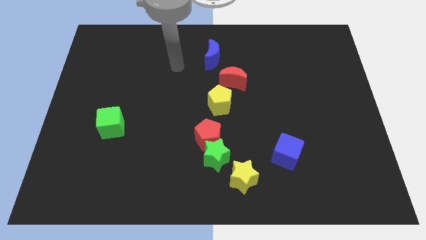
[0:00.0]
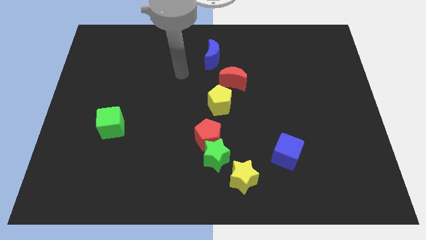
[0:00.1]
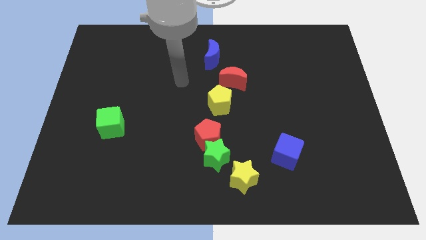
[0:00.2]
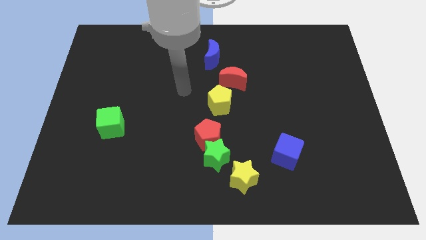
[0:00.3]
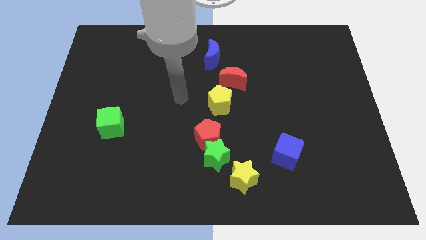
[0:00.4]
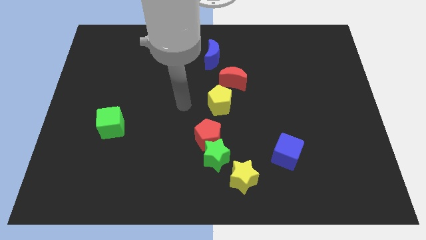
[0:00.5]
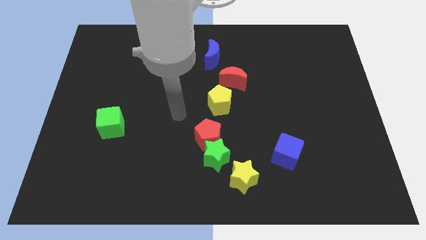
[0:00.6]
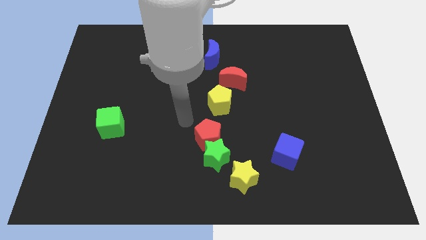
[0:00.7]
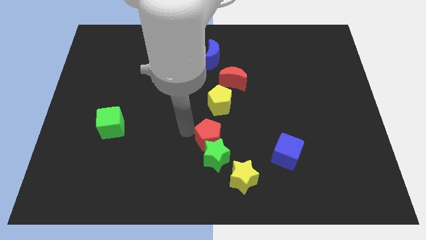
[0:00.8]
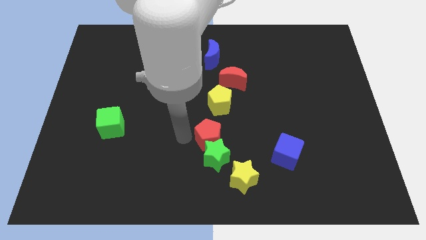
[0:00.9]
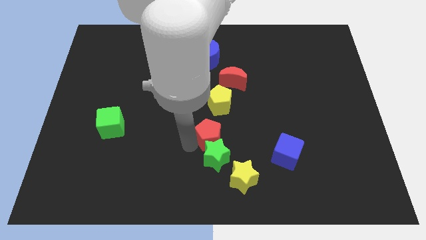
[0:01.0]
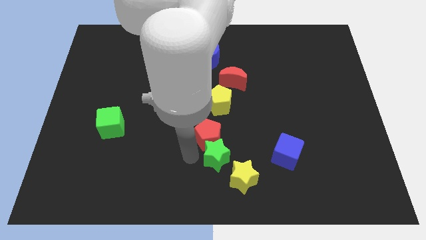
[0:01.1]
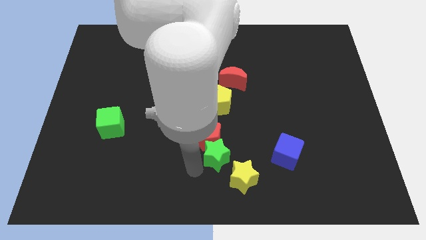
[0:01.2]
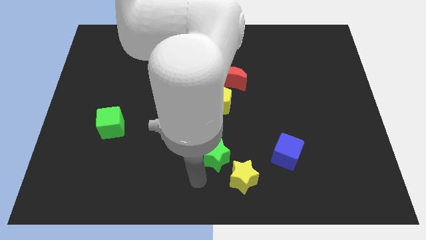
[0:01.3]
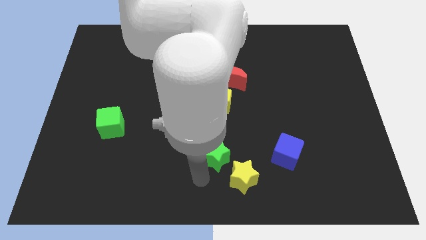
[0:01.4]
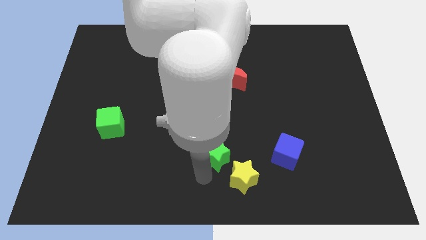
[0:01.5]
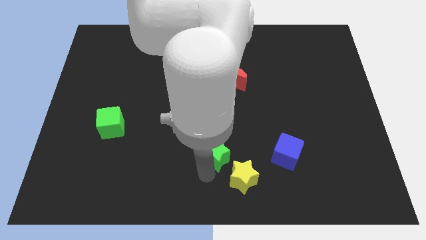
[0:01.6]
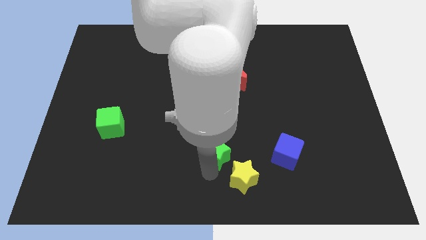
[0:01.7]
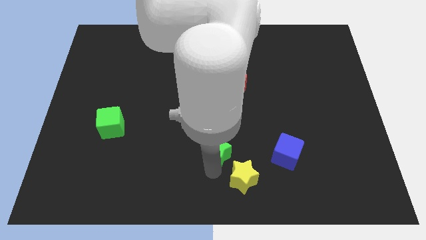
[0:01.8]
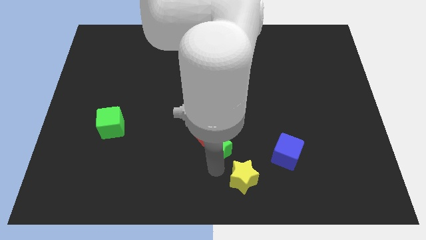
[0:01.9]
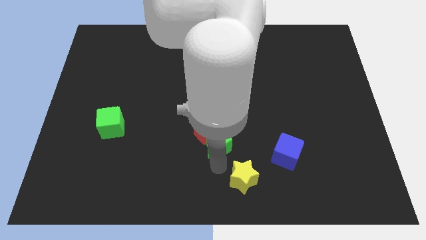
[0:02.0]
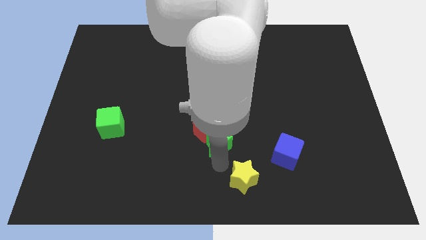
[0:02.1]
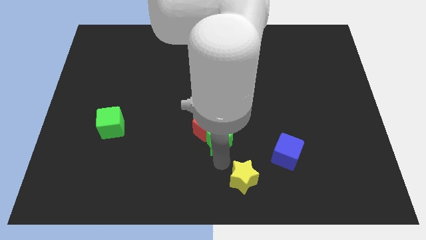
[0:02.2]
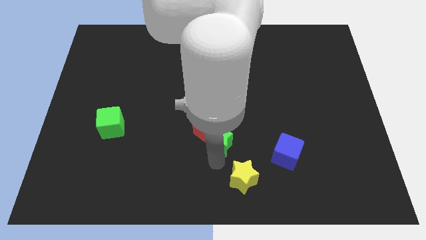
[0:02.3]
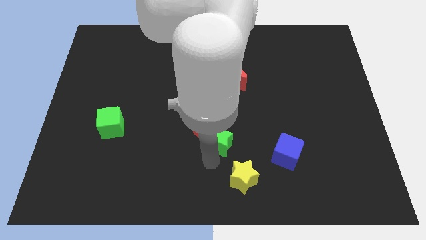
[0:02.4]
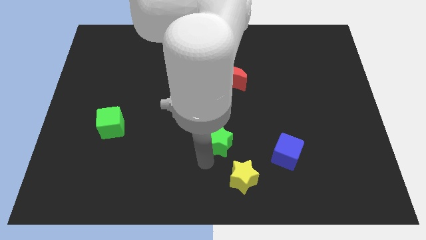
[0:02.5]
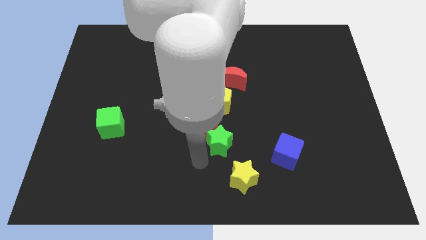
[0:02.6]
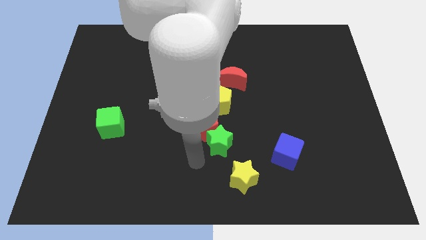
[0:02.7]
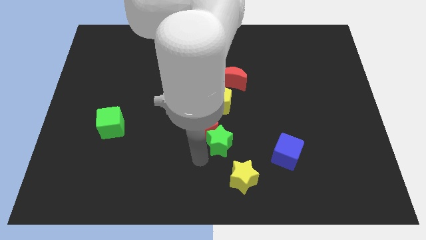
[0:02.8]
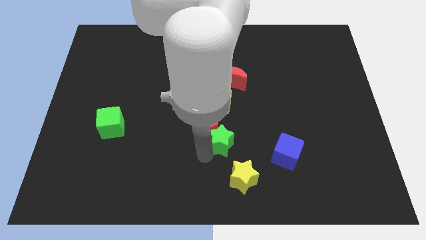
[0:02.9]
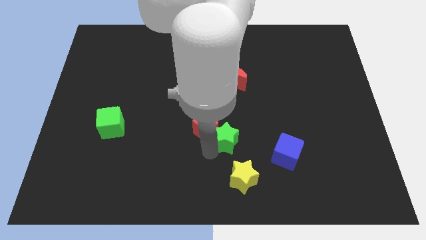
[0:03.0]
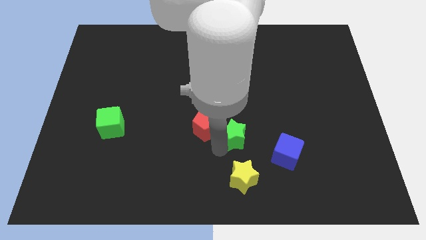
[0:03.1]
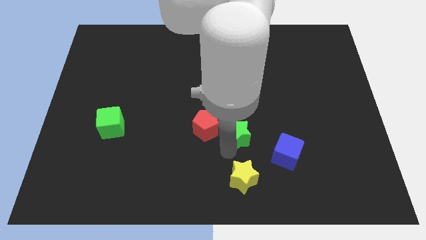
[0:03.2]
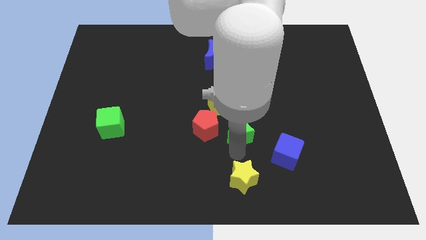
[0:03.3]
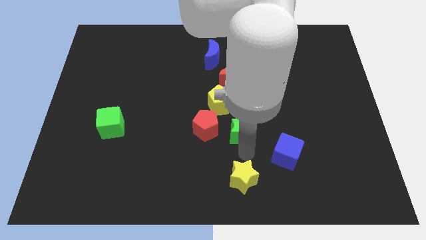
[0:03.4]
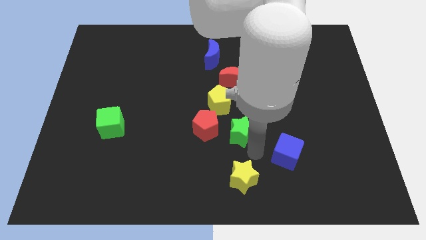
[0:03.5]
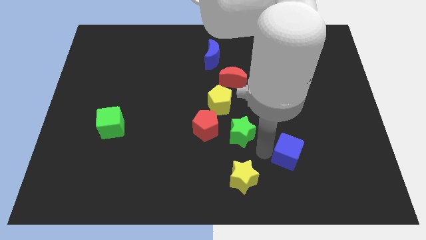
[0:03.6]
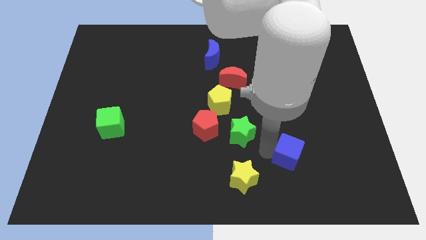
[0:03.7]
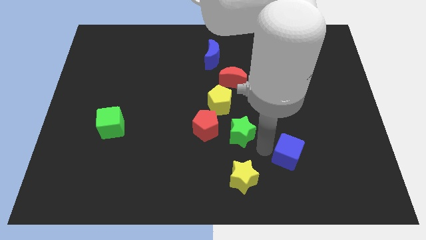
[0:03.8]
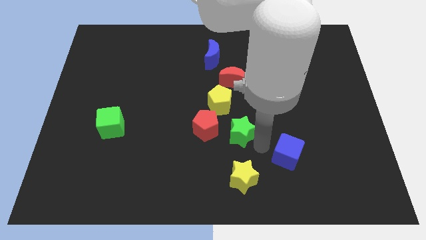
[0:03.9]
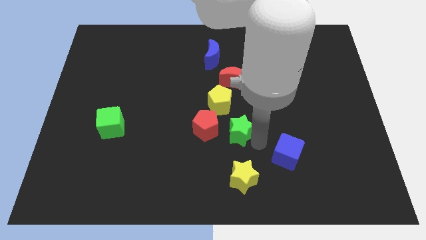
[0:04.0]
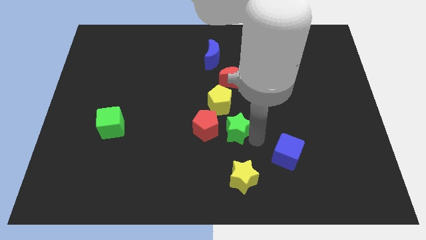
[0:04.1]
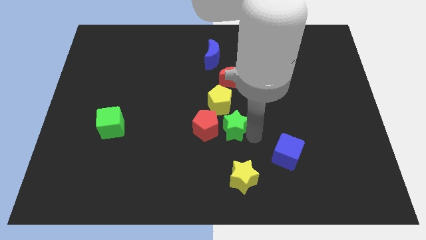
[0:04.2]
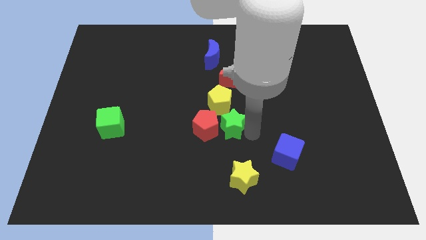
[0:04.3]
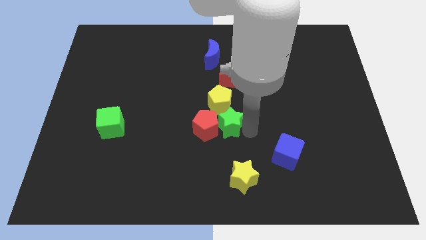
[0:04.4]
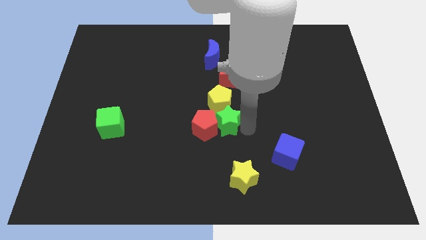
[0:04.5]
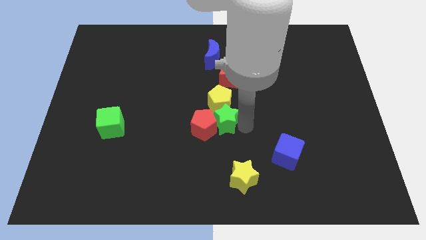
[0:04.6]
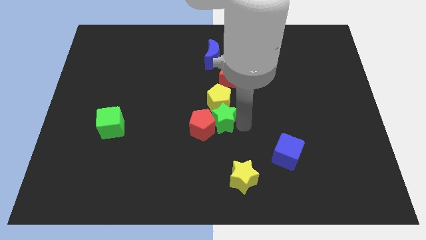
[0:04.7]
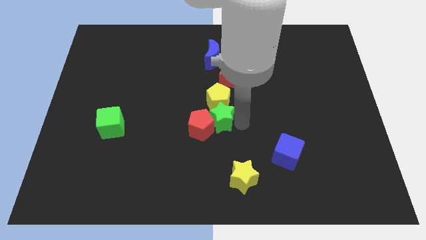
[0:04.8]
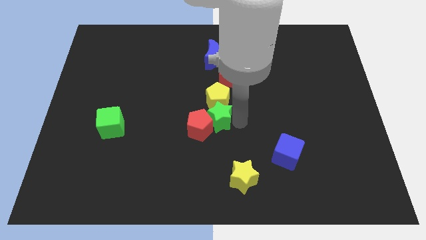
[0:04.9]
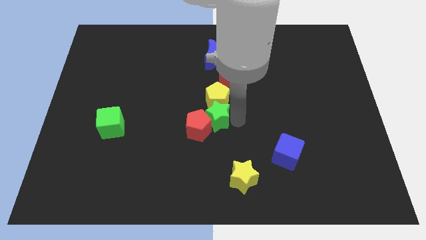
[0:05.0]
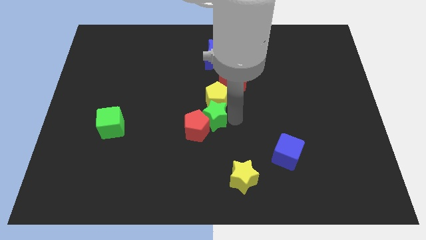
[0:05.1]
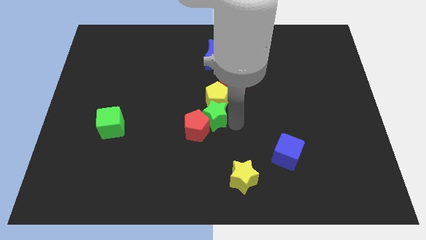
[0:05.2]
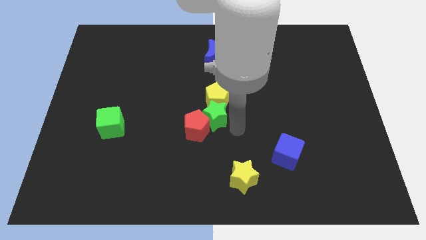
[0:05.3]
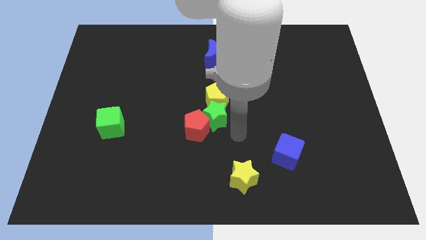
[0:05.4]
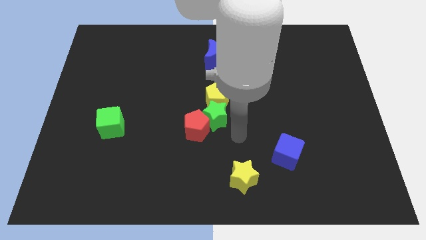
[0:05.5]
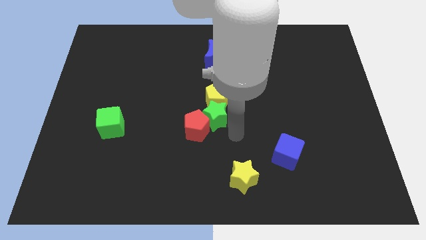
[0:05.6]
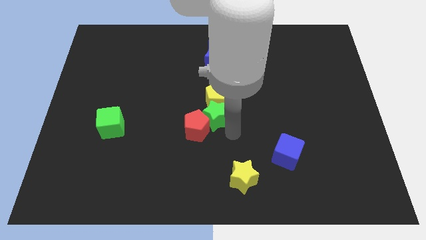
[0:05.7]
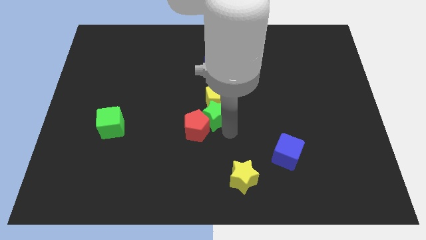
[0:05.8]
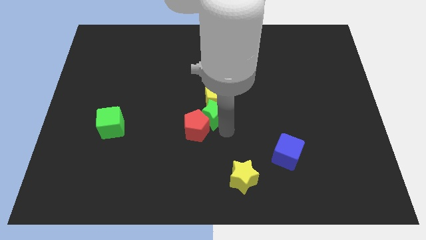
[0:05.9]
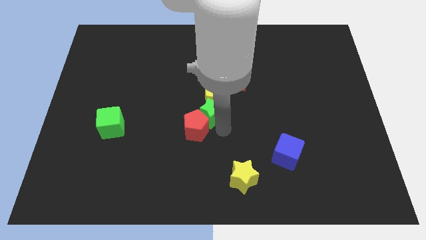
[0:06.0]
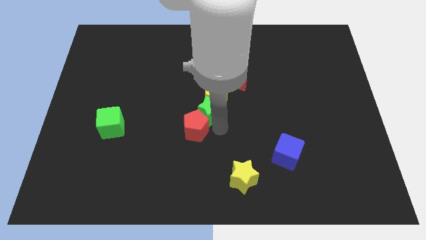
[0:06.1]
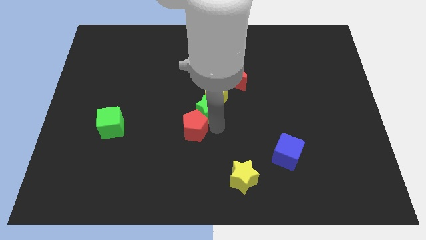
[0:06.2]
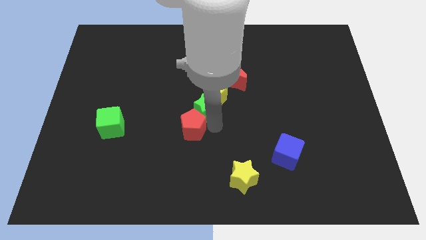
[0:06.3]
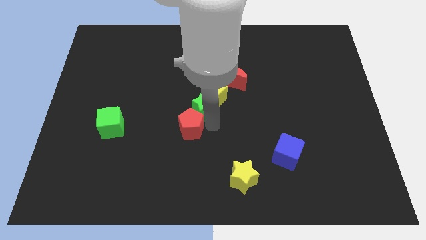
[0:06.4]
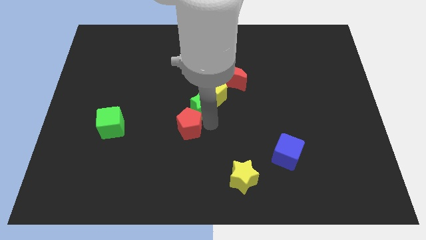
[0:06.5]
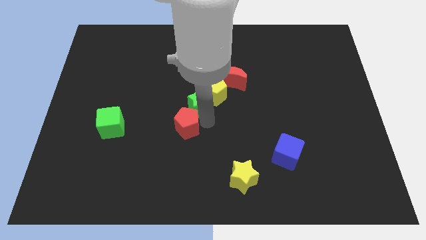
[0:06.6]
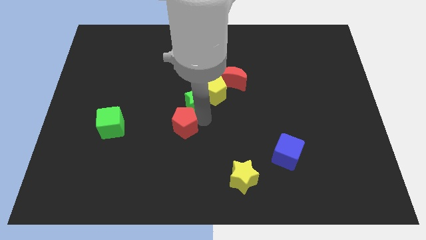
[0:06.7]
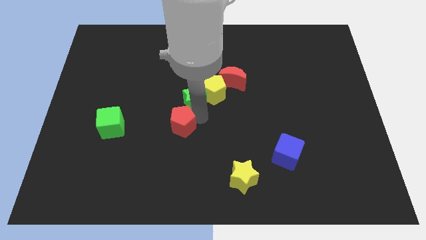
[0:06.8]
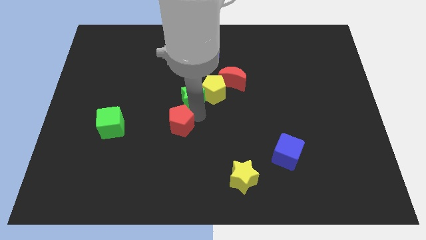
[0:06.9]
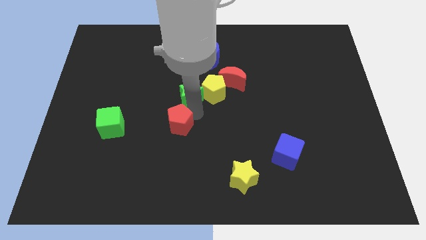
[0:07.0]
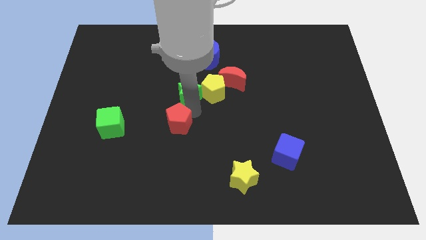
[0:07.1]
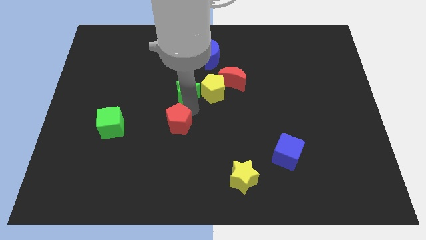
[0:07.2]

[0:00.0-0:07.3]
put the green star left of the red moon
